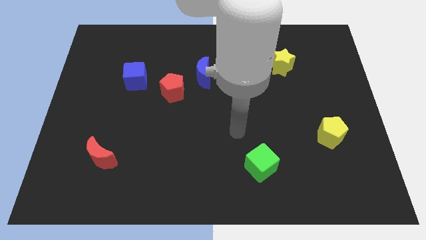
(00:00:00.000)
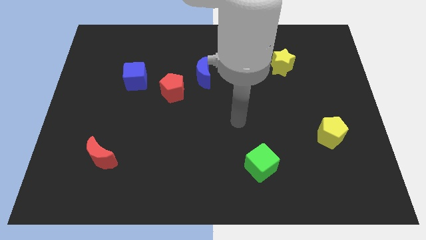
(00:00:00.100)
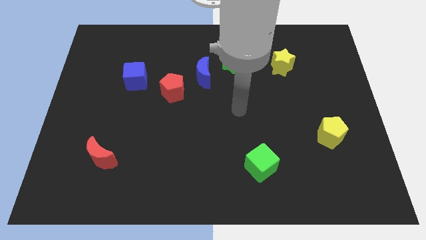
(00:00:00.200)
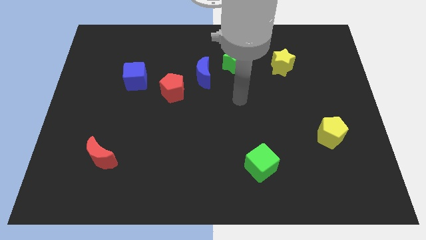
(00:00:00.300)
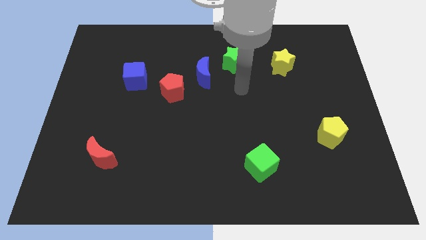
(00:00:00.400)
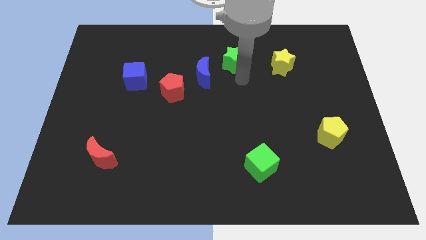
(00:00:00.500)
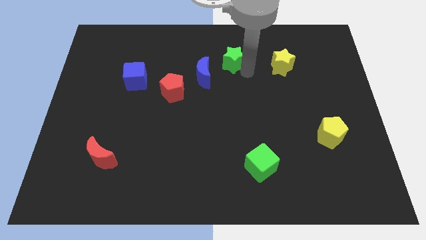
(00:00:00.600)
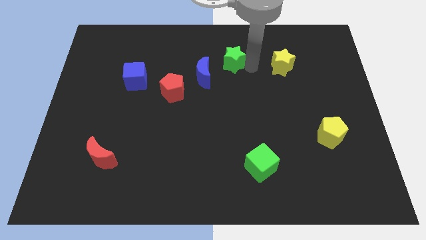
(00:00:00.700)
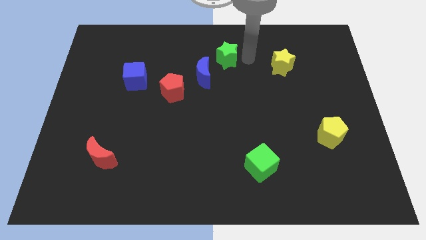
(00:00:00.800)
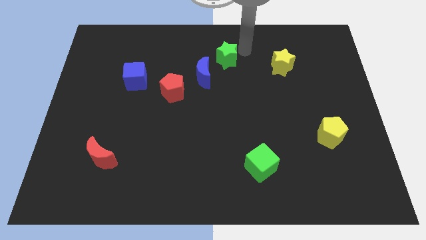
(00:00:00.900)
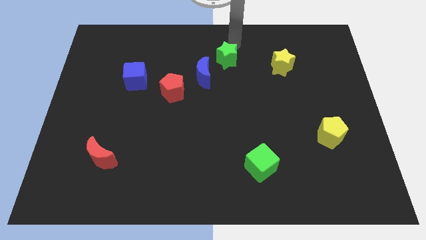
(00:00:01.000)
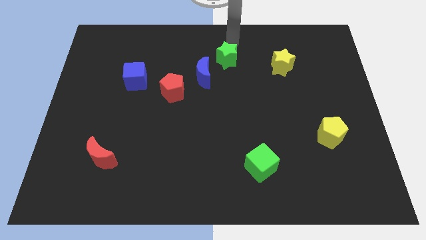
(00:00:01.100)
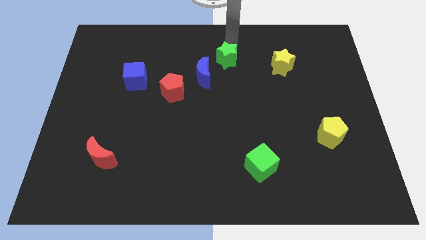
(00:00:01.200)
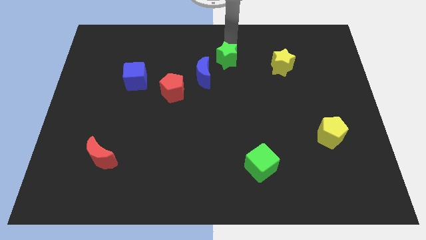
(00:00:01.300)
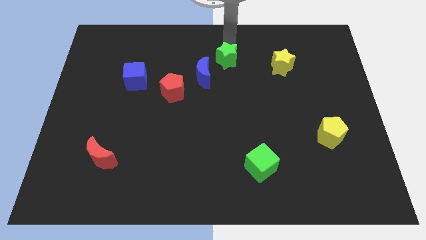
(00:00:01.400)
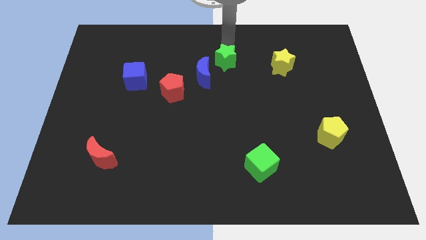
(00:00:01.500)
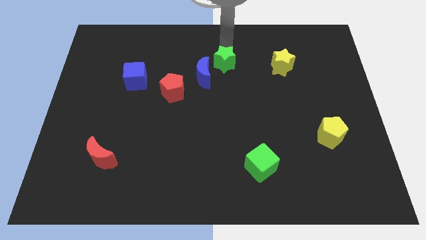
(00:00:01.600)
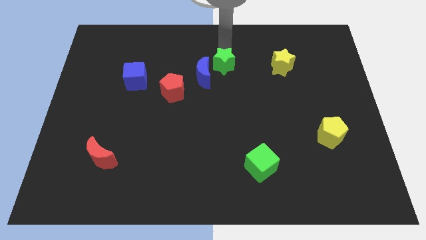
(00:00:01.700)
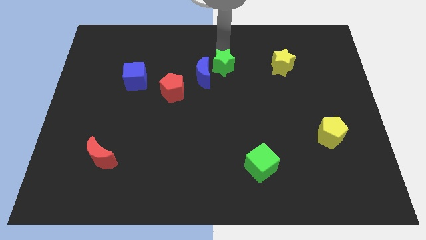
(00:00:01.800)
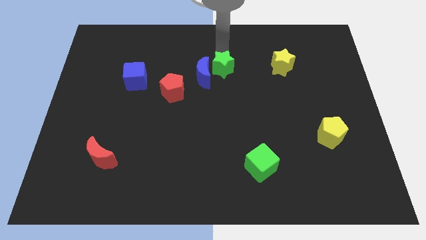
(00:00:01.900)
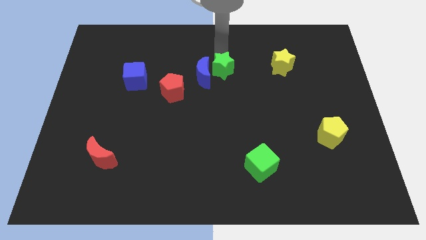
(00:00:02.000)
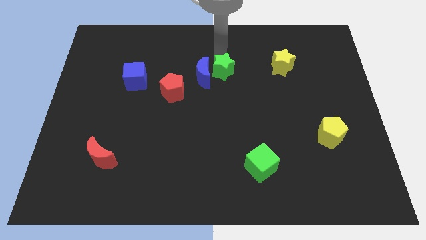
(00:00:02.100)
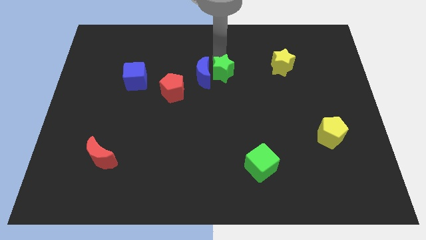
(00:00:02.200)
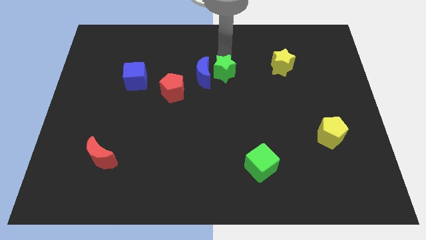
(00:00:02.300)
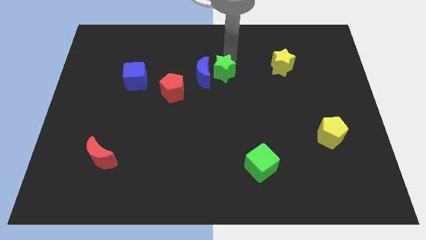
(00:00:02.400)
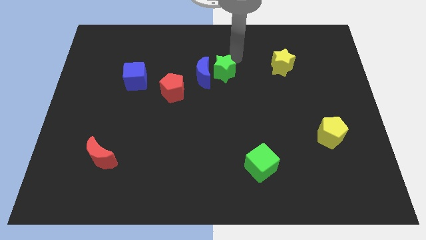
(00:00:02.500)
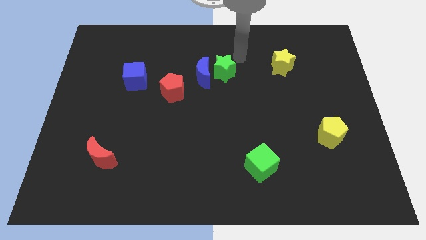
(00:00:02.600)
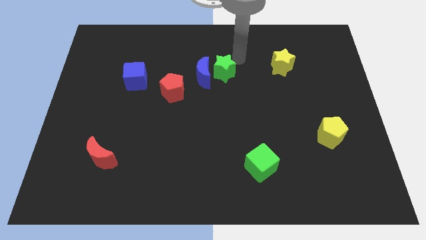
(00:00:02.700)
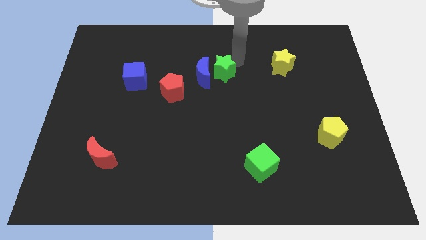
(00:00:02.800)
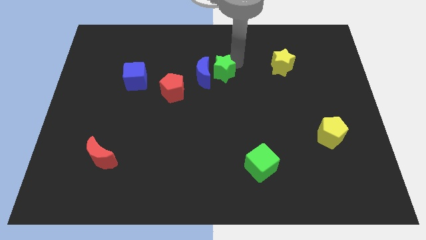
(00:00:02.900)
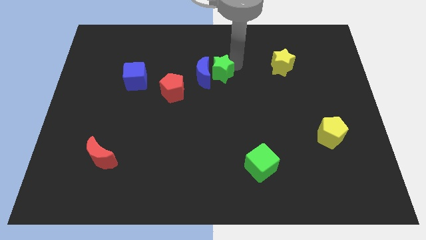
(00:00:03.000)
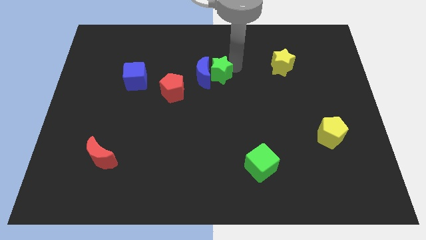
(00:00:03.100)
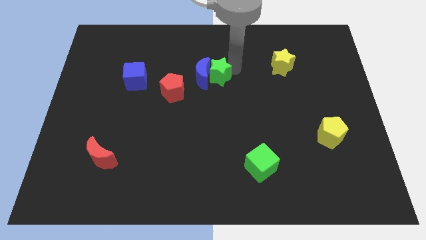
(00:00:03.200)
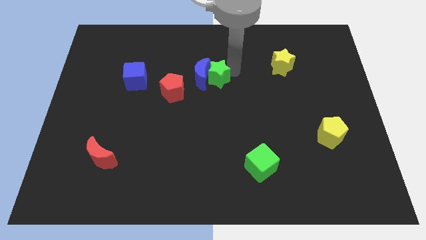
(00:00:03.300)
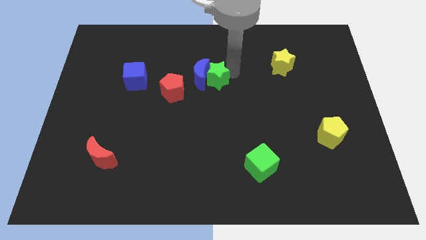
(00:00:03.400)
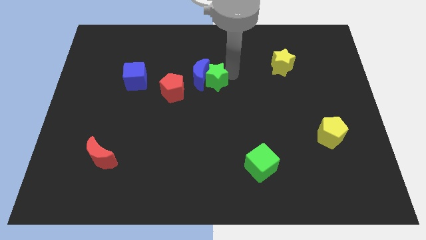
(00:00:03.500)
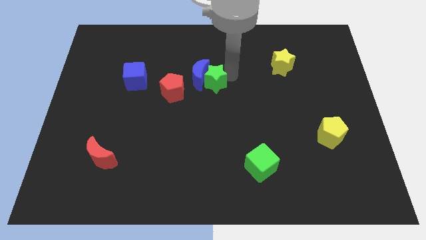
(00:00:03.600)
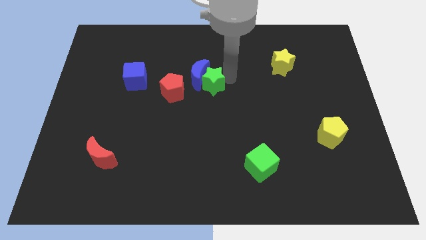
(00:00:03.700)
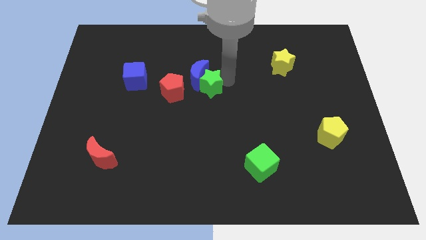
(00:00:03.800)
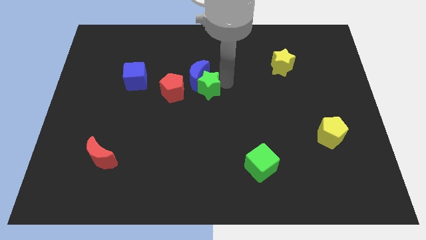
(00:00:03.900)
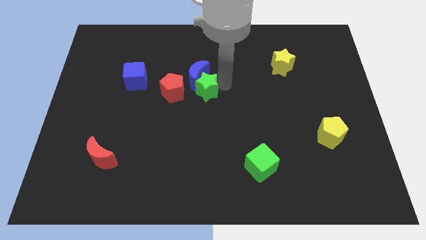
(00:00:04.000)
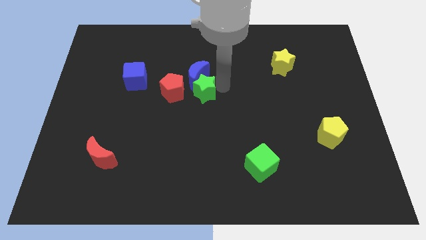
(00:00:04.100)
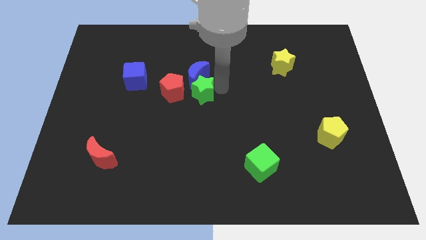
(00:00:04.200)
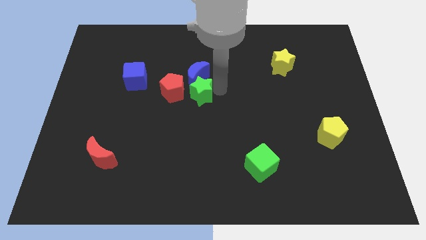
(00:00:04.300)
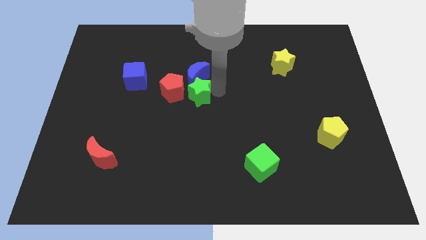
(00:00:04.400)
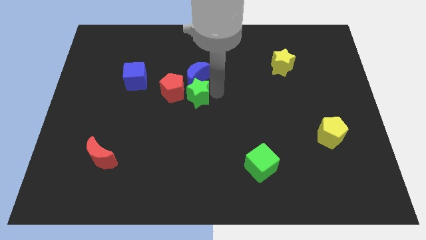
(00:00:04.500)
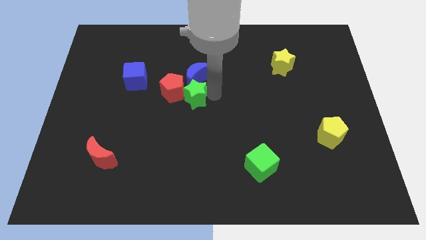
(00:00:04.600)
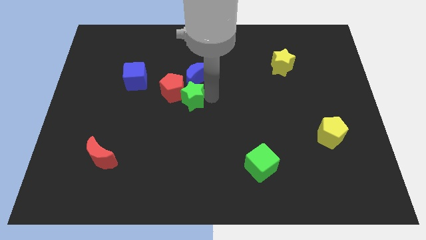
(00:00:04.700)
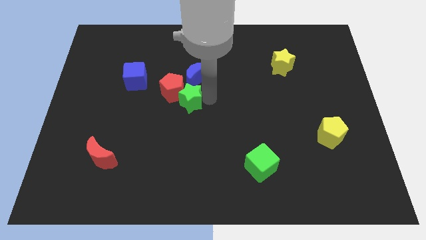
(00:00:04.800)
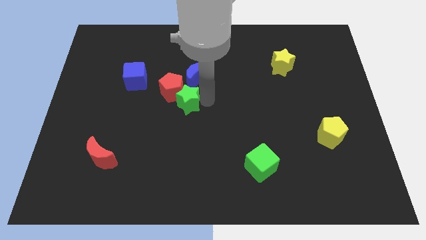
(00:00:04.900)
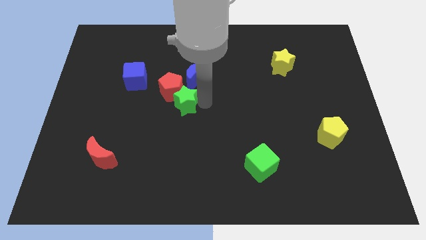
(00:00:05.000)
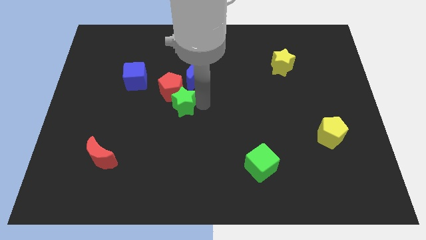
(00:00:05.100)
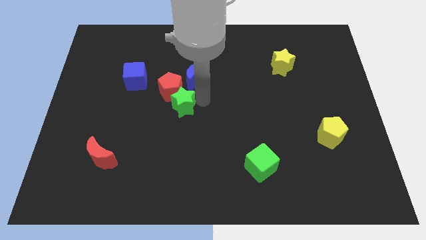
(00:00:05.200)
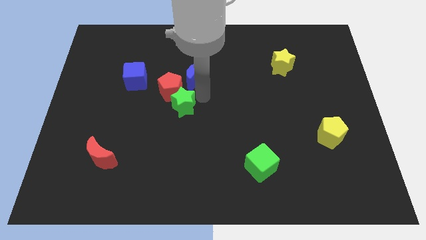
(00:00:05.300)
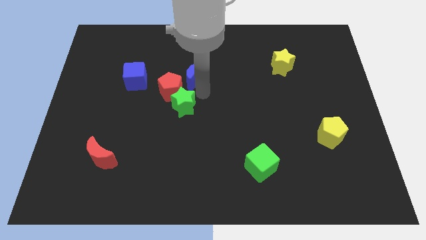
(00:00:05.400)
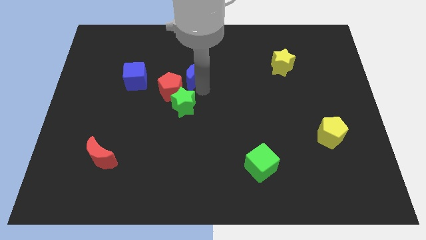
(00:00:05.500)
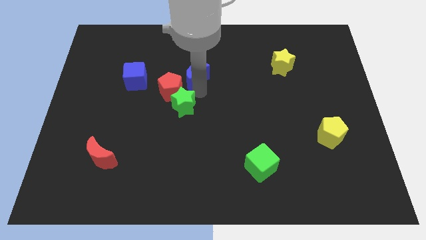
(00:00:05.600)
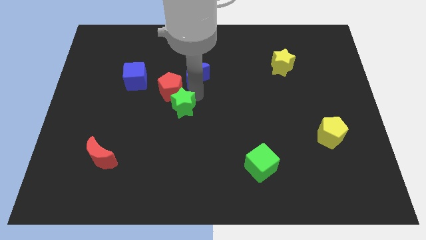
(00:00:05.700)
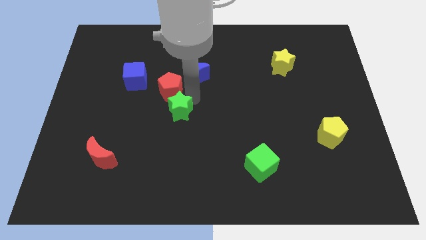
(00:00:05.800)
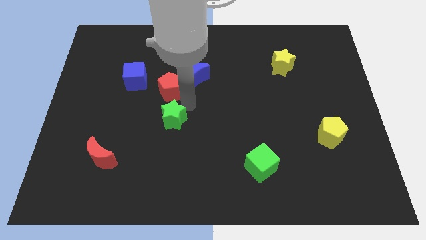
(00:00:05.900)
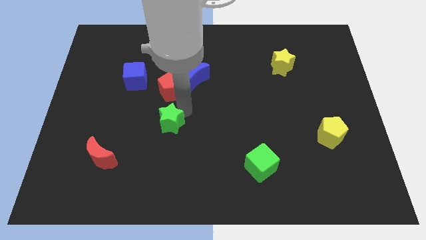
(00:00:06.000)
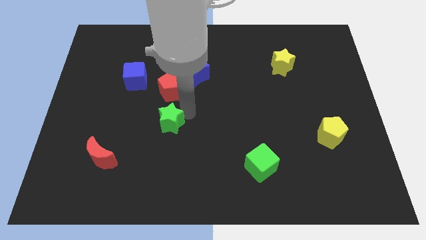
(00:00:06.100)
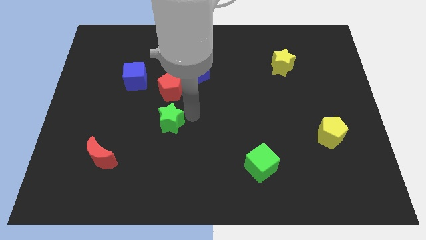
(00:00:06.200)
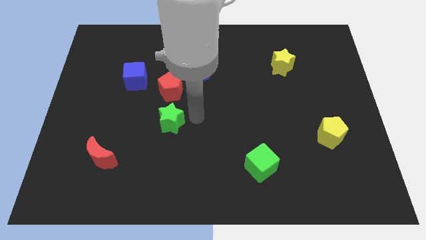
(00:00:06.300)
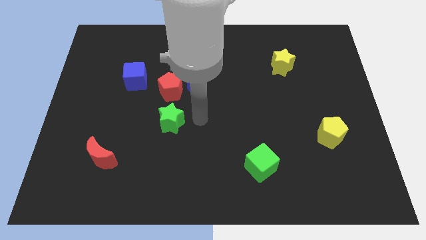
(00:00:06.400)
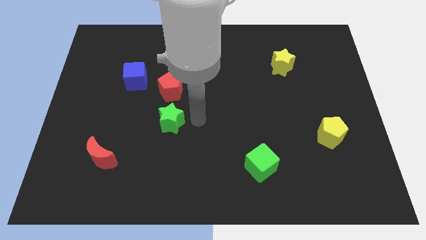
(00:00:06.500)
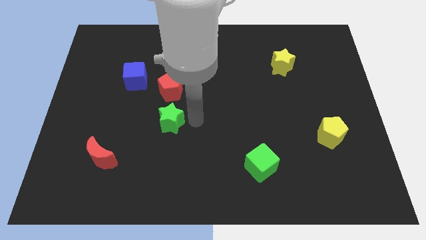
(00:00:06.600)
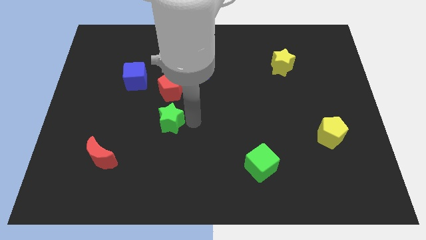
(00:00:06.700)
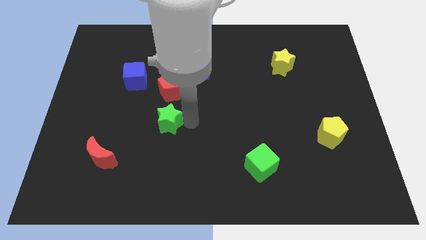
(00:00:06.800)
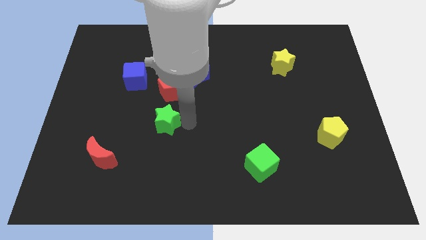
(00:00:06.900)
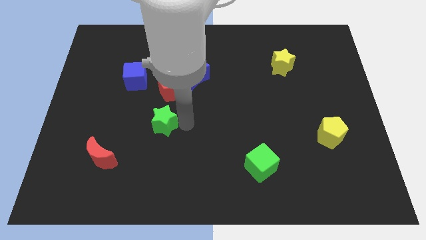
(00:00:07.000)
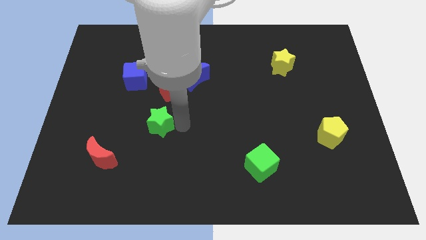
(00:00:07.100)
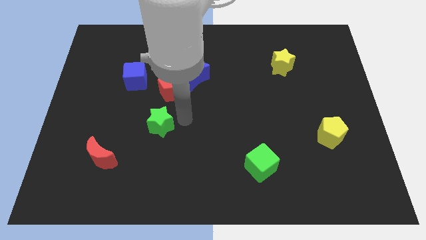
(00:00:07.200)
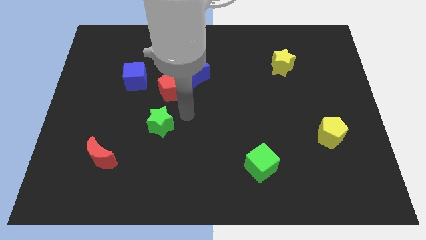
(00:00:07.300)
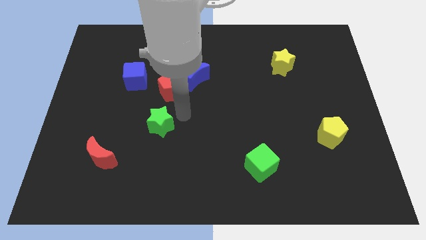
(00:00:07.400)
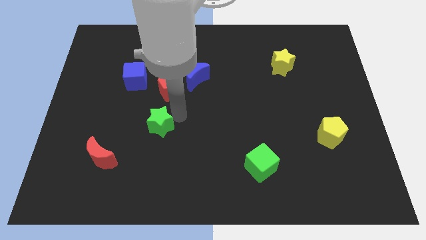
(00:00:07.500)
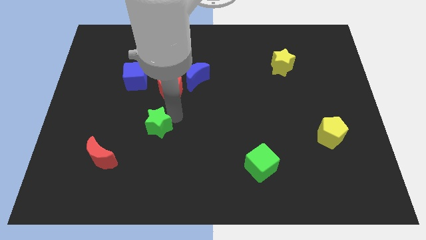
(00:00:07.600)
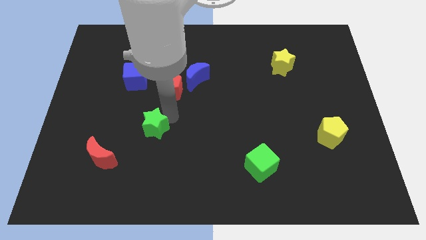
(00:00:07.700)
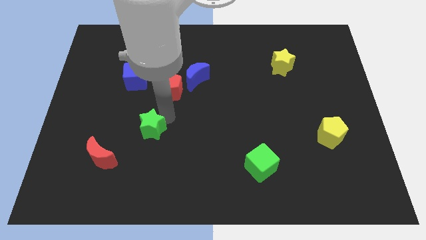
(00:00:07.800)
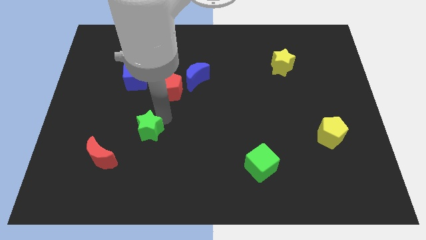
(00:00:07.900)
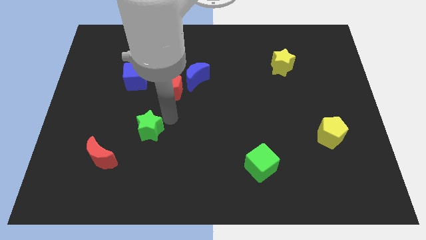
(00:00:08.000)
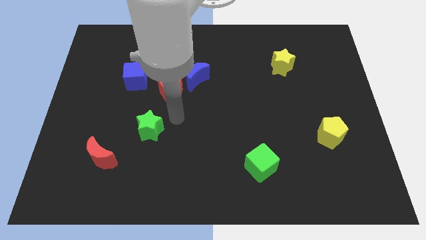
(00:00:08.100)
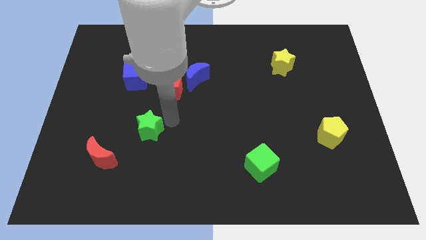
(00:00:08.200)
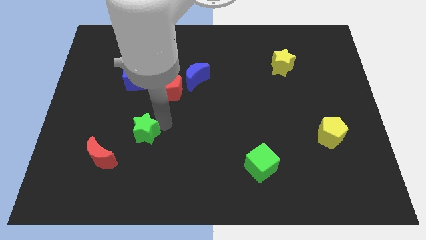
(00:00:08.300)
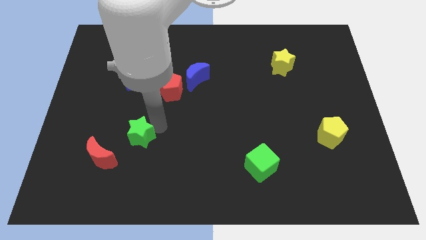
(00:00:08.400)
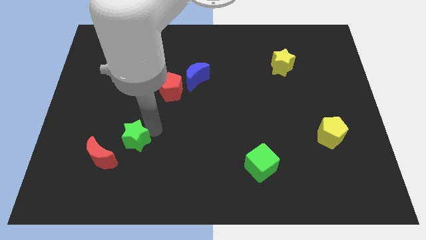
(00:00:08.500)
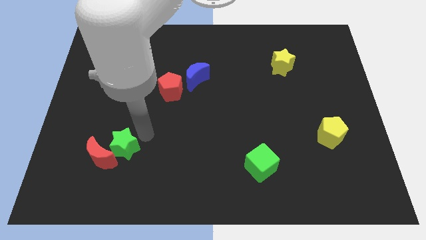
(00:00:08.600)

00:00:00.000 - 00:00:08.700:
move the green star to the red moon
